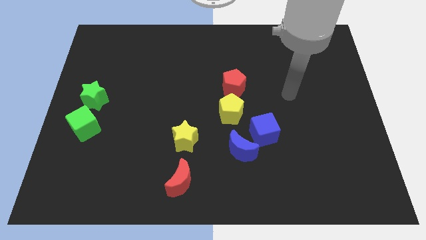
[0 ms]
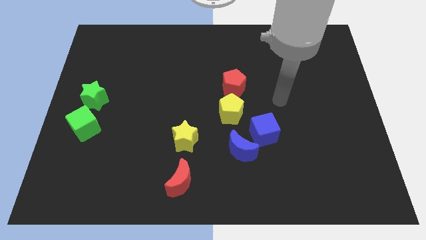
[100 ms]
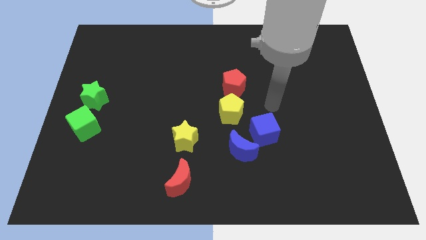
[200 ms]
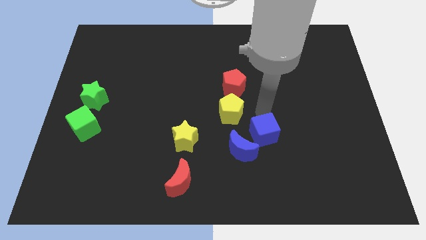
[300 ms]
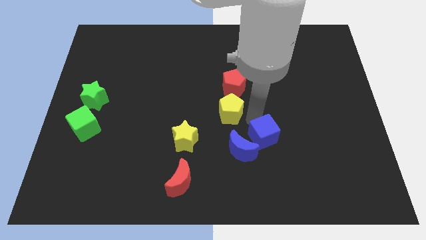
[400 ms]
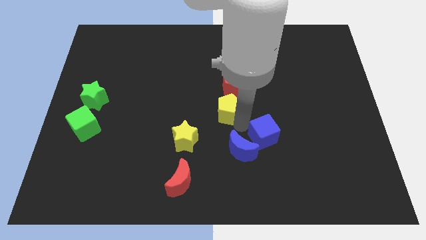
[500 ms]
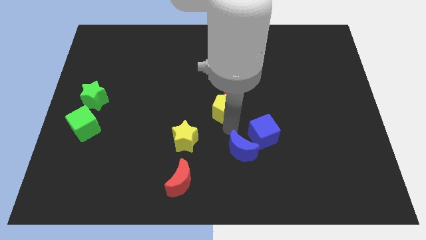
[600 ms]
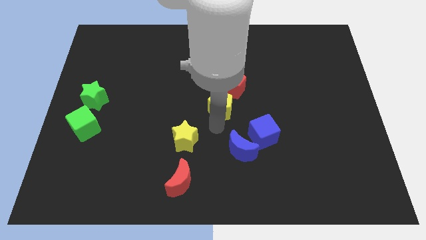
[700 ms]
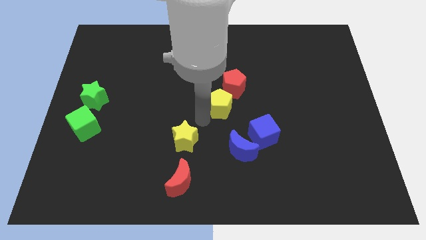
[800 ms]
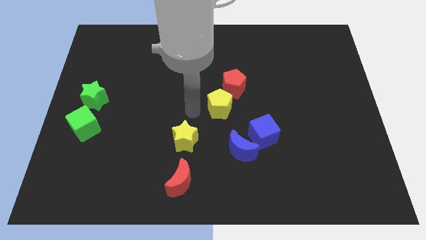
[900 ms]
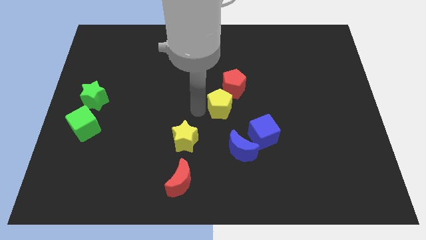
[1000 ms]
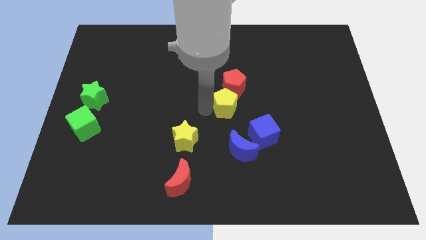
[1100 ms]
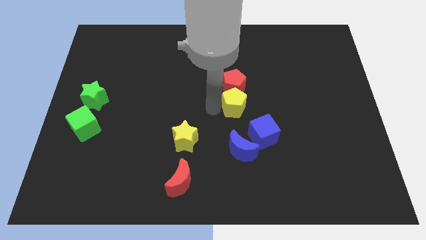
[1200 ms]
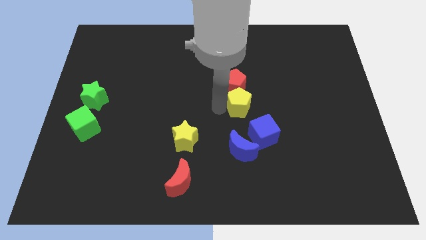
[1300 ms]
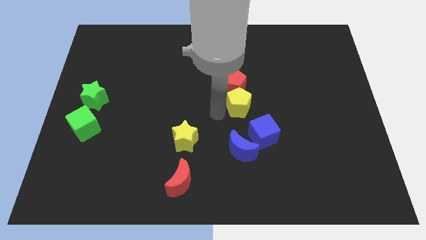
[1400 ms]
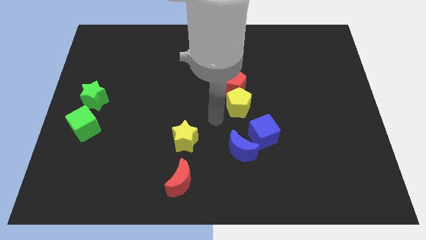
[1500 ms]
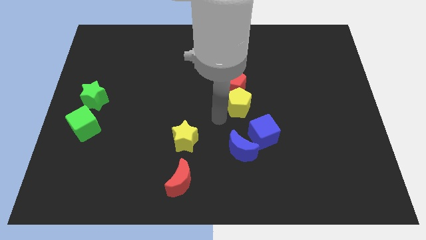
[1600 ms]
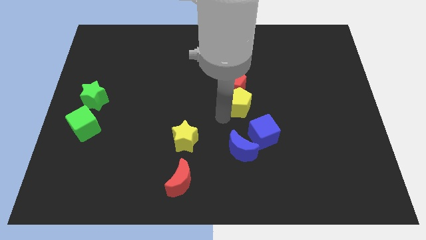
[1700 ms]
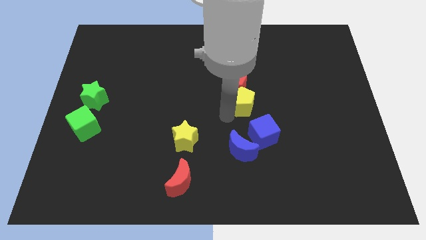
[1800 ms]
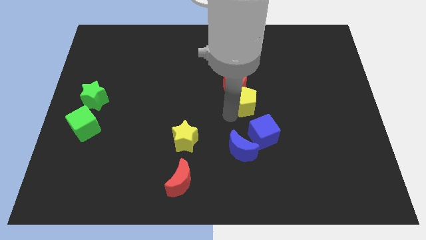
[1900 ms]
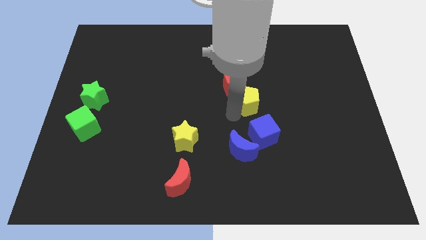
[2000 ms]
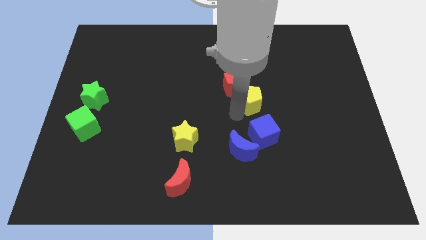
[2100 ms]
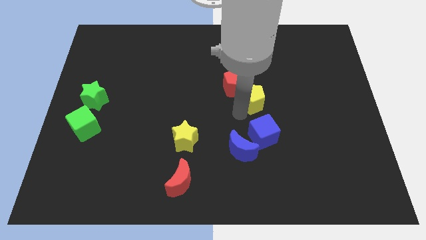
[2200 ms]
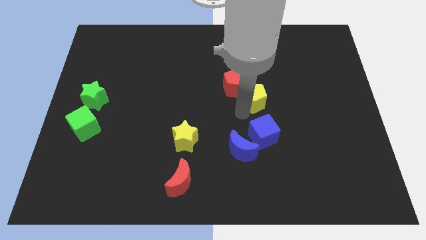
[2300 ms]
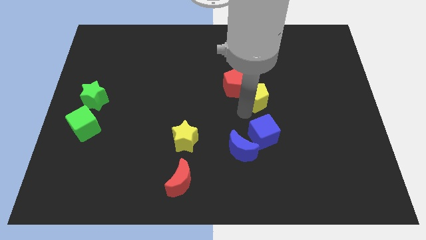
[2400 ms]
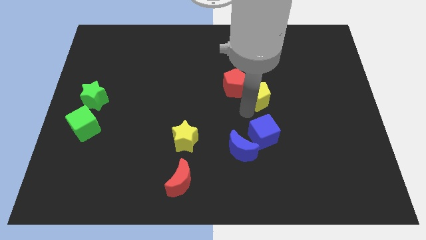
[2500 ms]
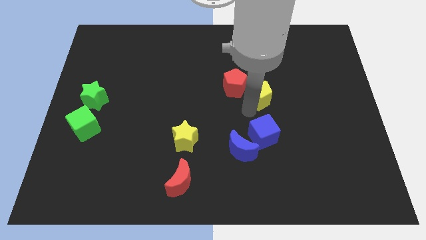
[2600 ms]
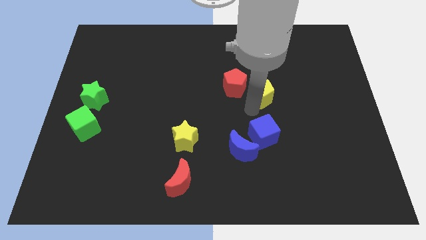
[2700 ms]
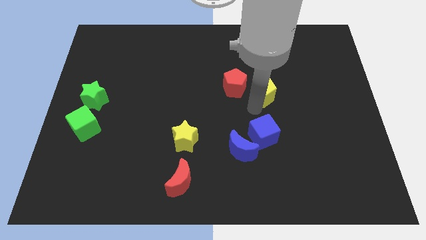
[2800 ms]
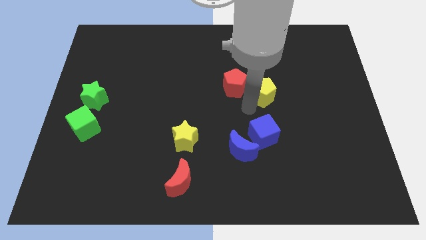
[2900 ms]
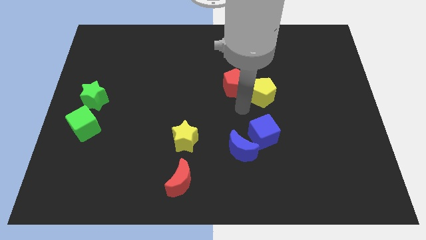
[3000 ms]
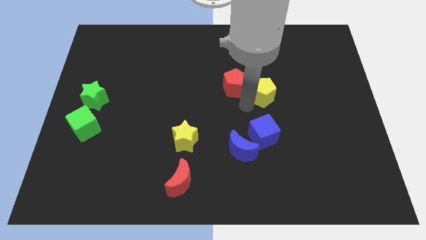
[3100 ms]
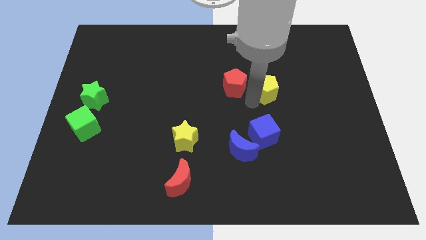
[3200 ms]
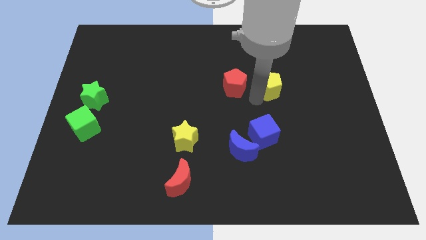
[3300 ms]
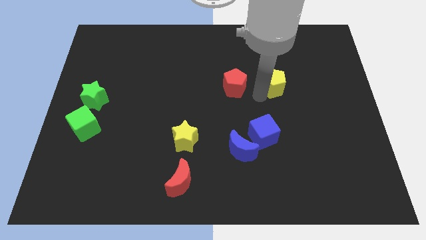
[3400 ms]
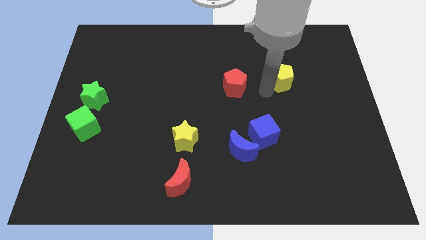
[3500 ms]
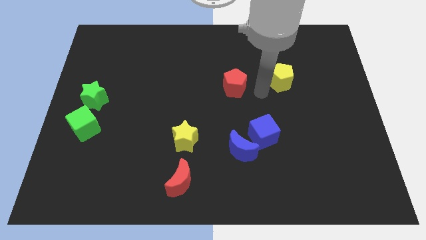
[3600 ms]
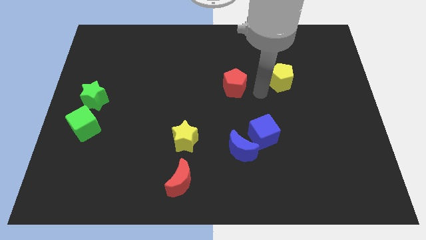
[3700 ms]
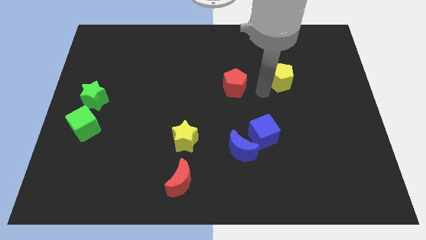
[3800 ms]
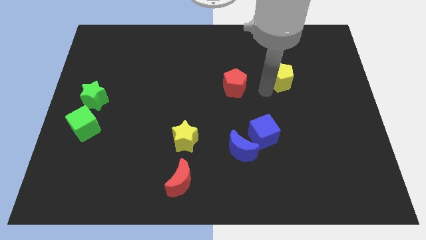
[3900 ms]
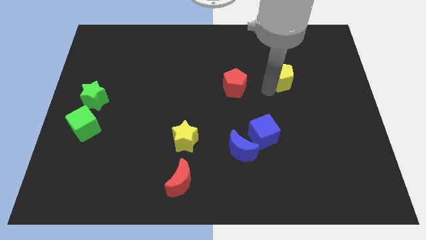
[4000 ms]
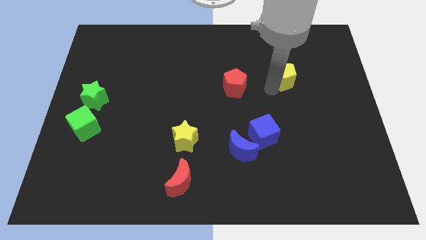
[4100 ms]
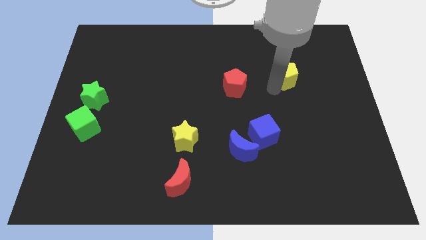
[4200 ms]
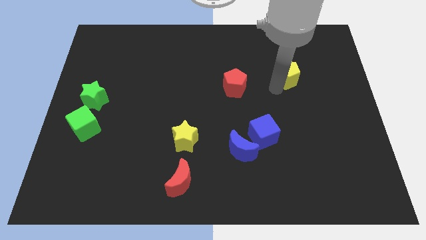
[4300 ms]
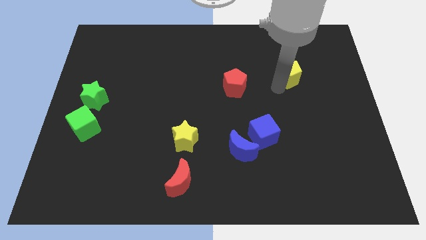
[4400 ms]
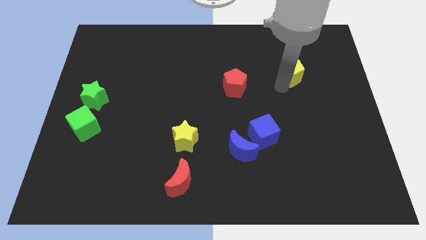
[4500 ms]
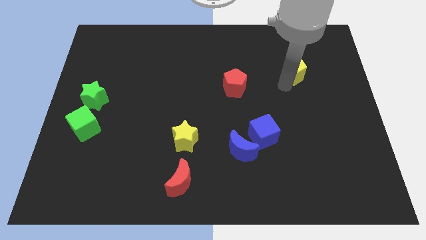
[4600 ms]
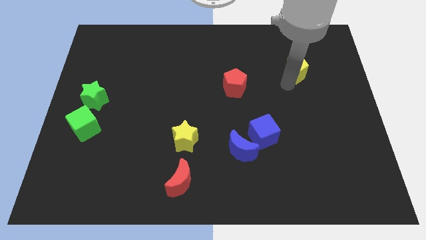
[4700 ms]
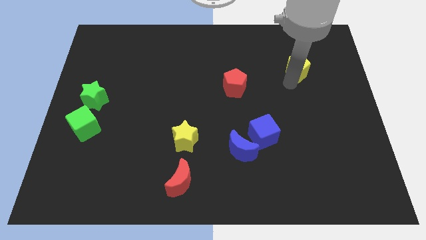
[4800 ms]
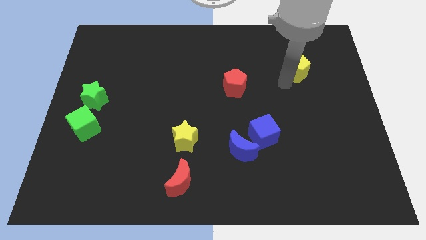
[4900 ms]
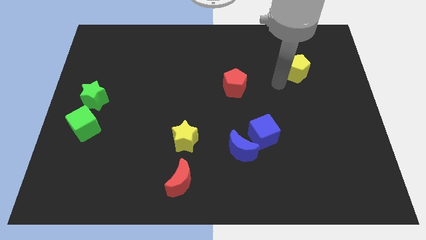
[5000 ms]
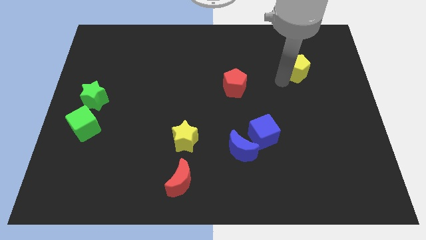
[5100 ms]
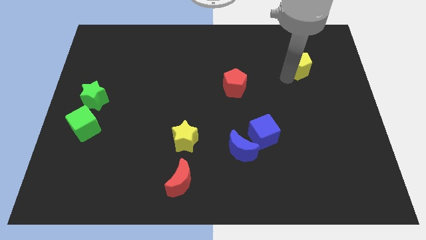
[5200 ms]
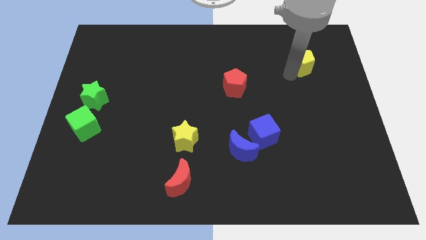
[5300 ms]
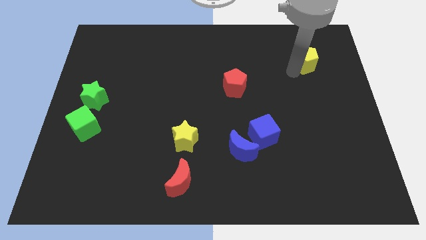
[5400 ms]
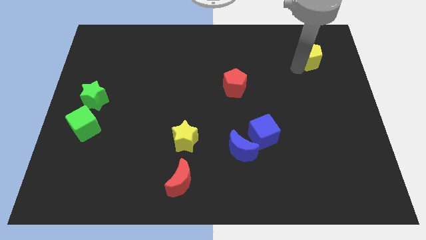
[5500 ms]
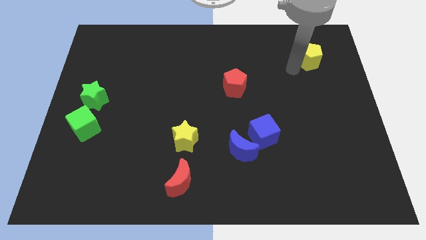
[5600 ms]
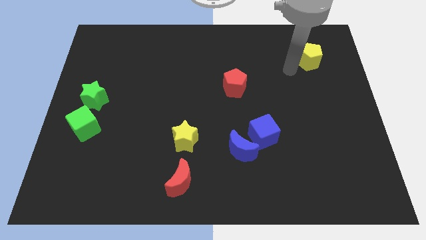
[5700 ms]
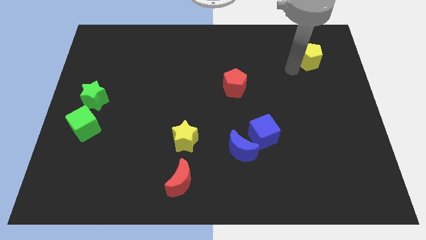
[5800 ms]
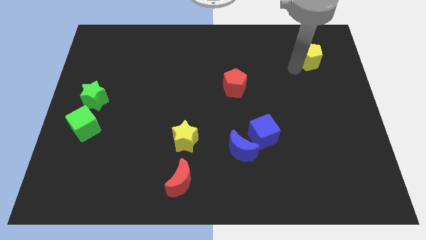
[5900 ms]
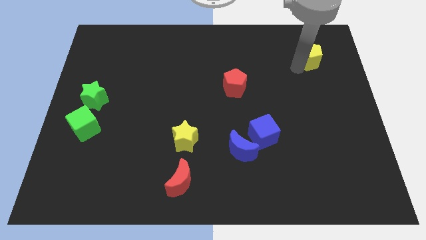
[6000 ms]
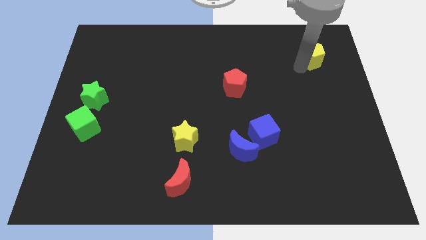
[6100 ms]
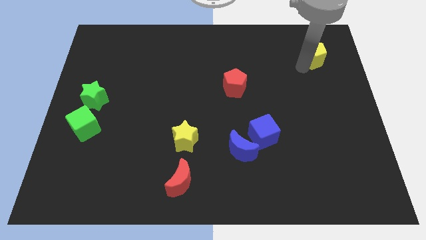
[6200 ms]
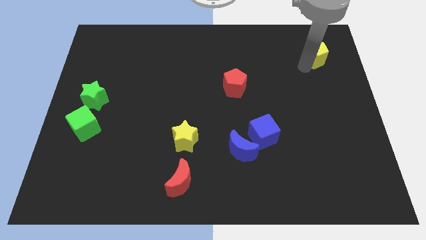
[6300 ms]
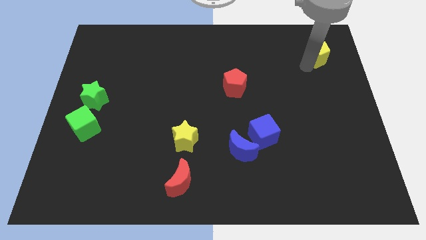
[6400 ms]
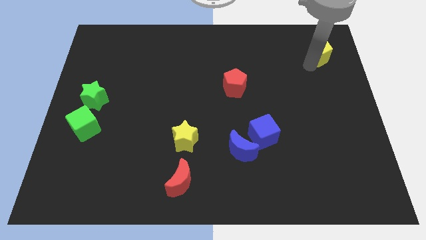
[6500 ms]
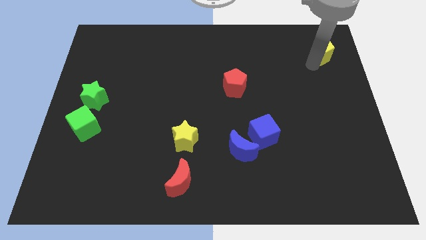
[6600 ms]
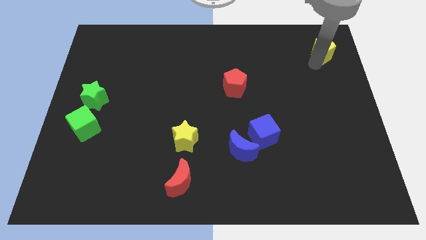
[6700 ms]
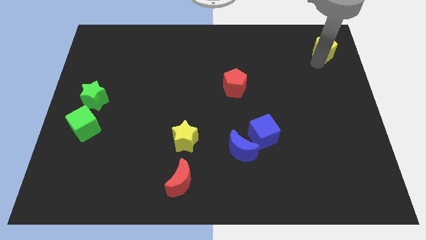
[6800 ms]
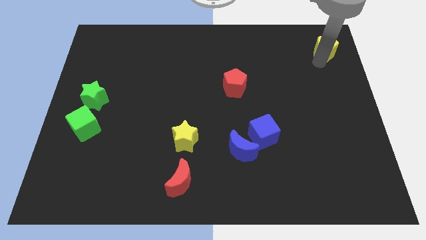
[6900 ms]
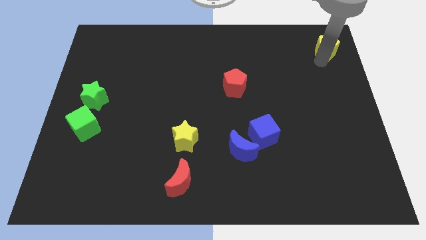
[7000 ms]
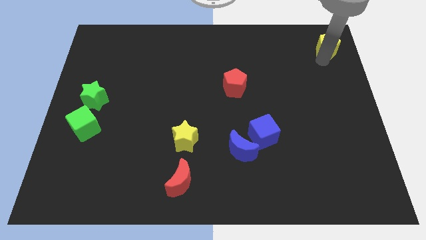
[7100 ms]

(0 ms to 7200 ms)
push the yellow pentagon to the top right corner
